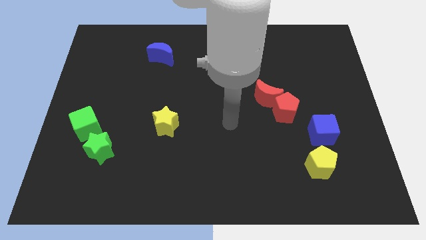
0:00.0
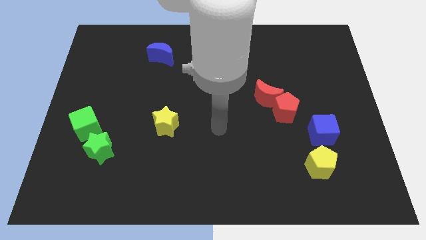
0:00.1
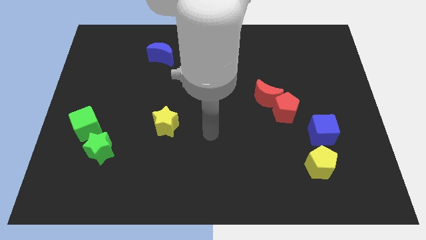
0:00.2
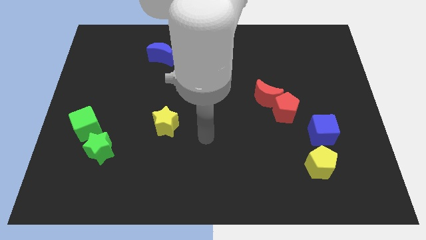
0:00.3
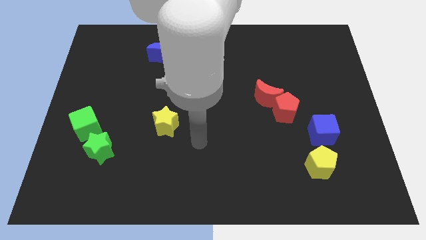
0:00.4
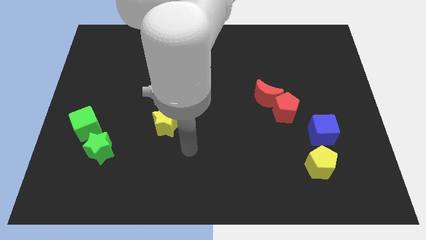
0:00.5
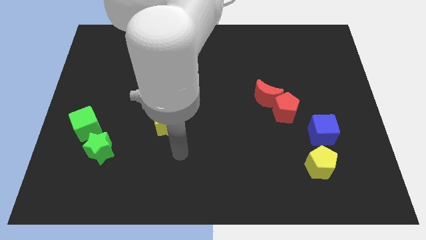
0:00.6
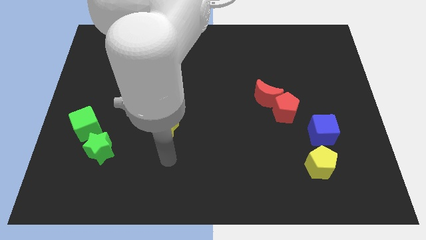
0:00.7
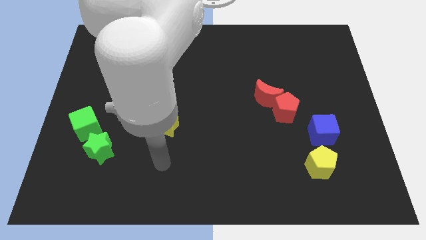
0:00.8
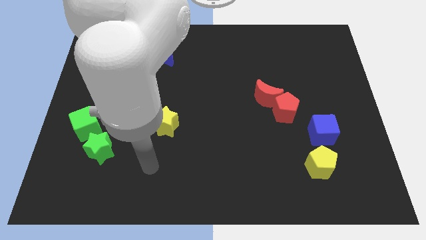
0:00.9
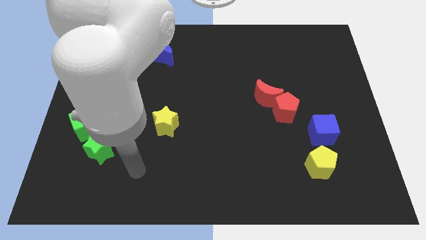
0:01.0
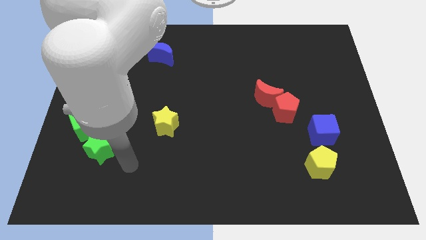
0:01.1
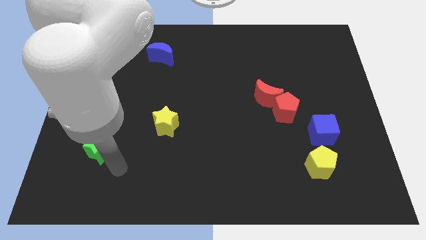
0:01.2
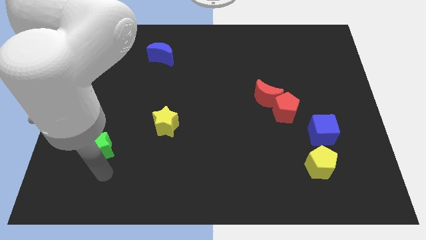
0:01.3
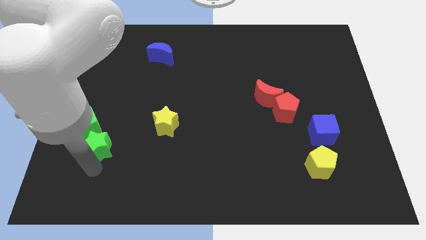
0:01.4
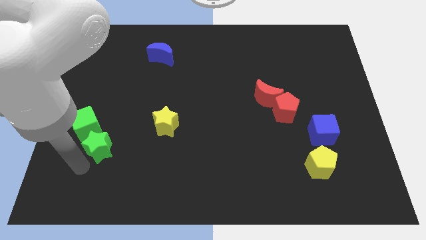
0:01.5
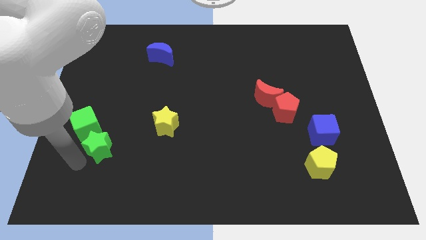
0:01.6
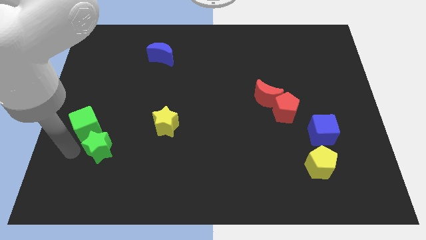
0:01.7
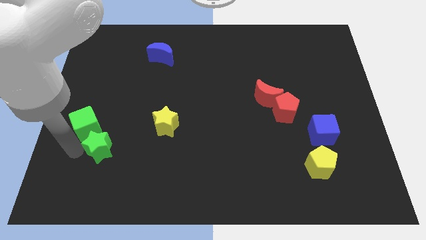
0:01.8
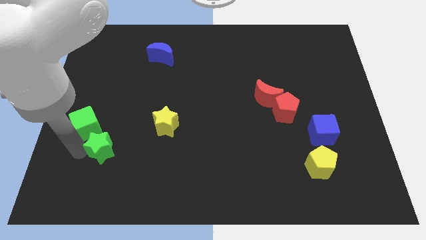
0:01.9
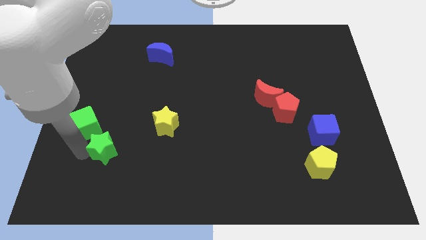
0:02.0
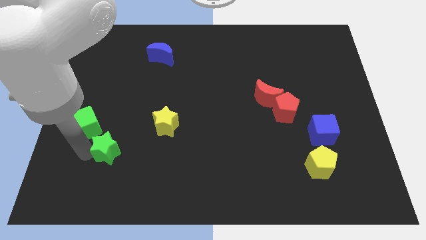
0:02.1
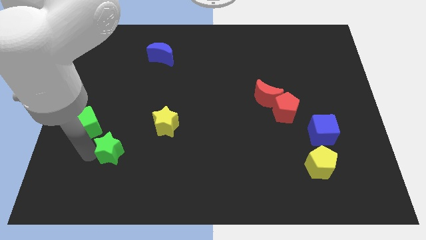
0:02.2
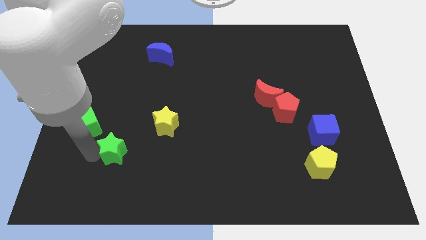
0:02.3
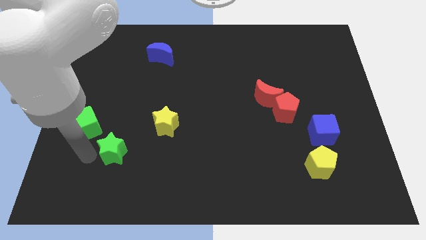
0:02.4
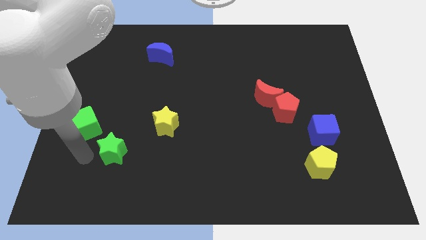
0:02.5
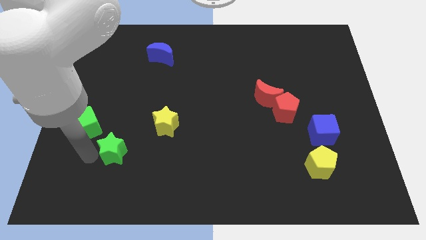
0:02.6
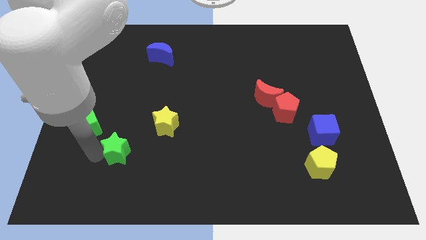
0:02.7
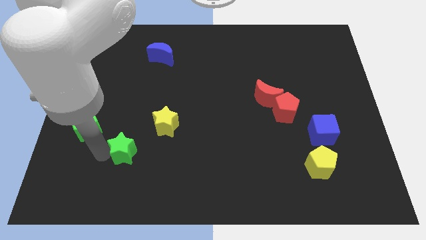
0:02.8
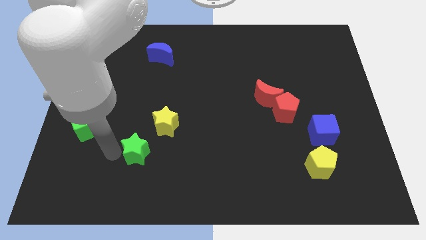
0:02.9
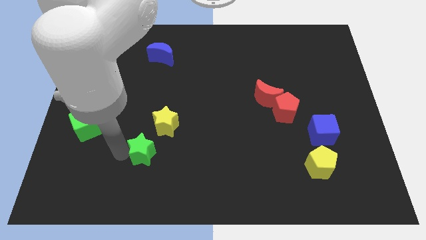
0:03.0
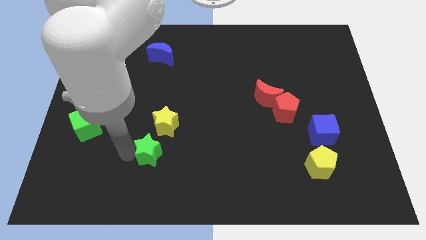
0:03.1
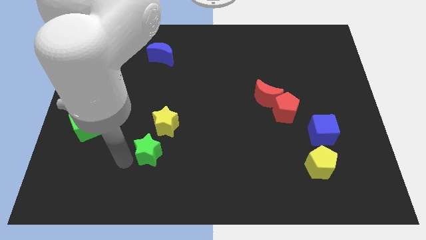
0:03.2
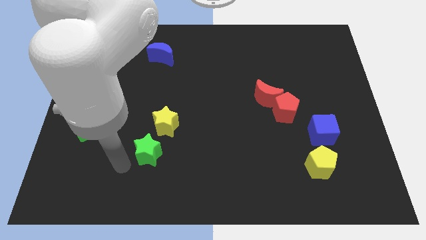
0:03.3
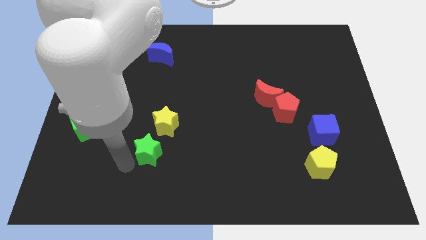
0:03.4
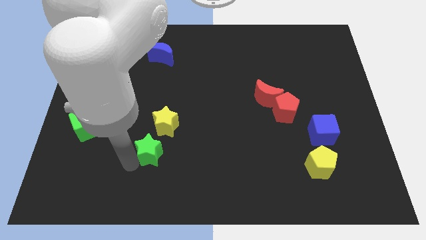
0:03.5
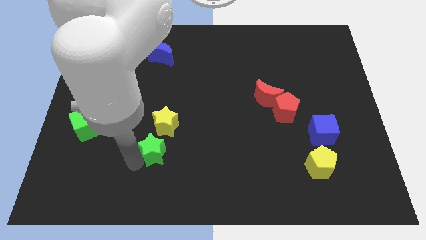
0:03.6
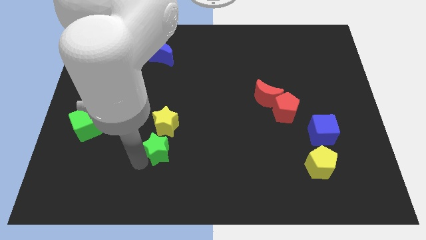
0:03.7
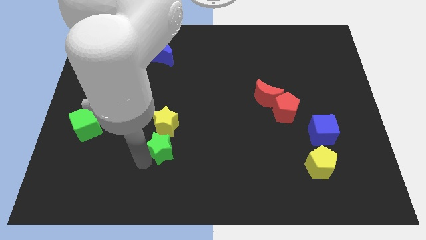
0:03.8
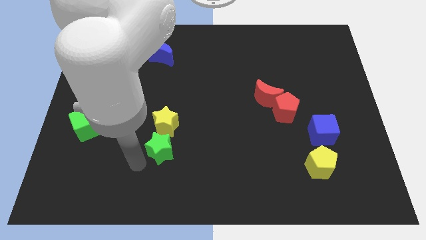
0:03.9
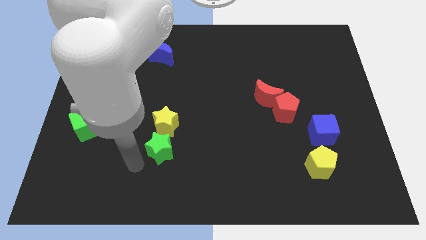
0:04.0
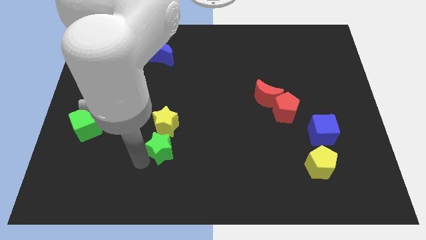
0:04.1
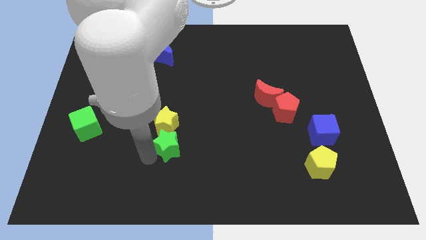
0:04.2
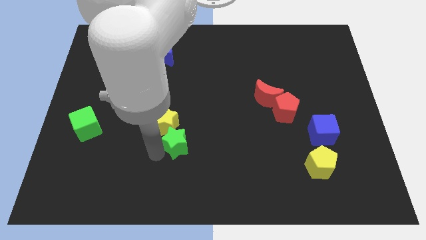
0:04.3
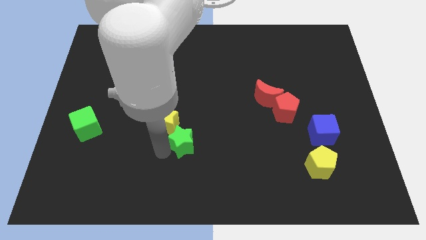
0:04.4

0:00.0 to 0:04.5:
put the green star right of the yellow star

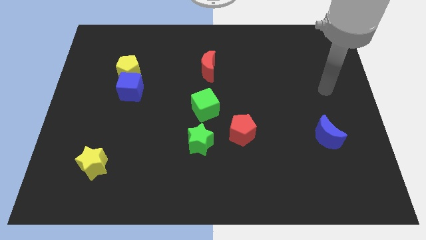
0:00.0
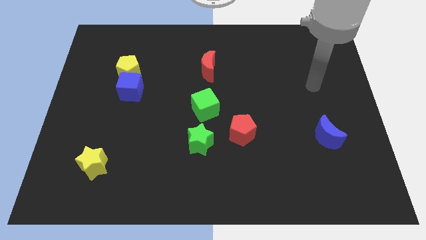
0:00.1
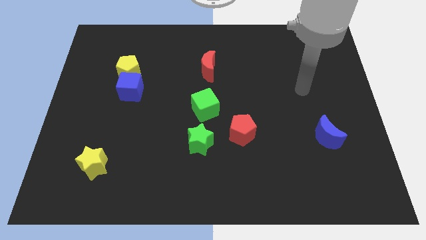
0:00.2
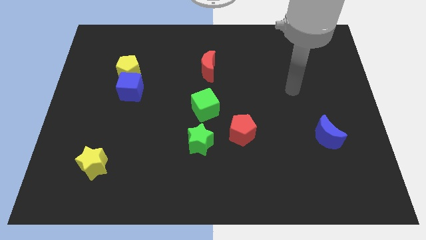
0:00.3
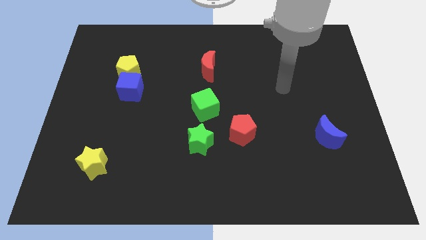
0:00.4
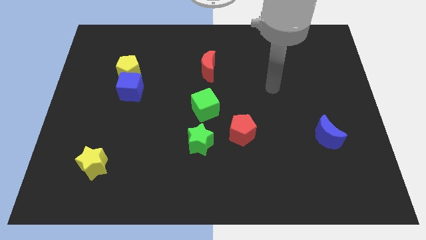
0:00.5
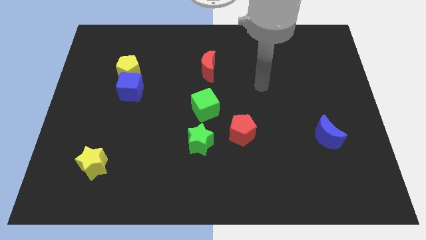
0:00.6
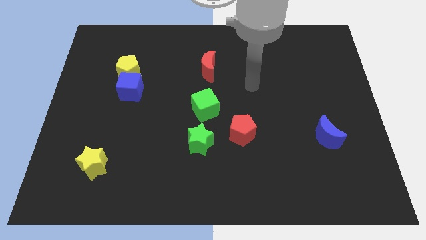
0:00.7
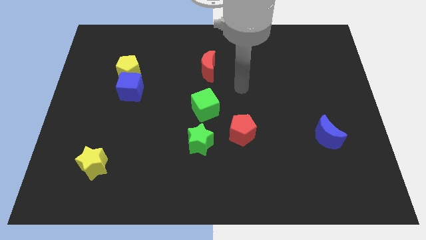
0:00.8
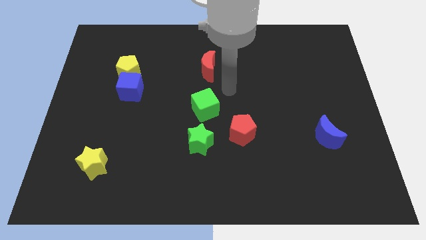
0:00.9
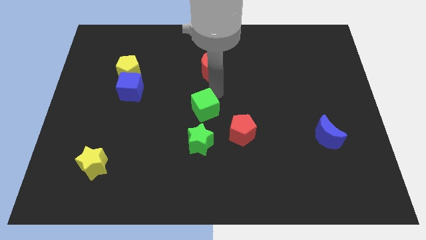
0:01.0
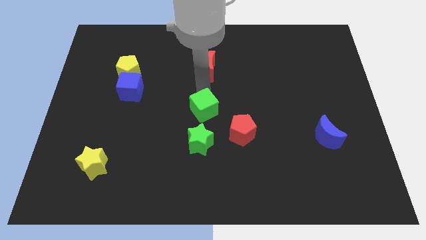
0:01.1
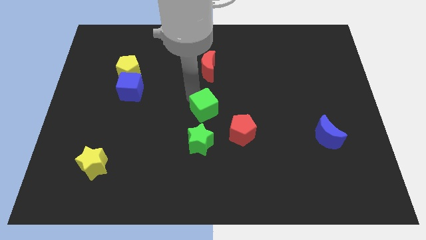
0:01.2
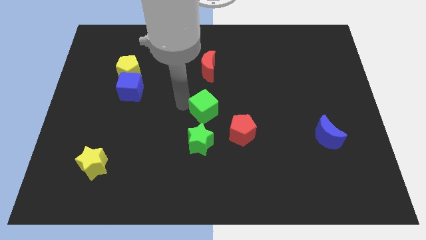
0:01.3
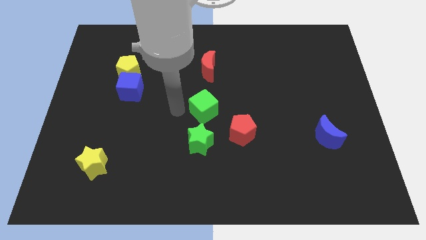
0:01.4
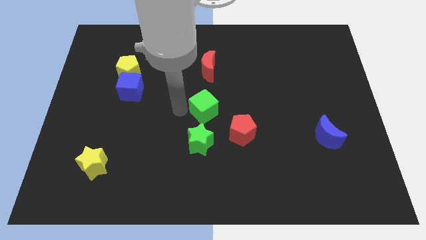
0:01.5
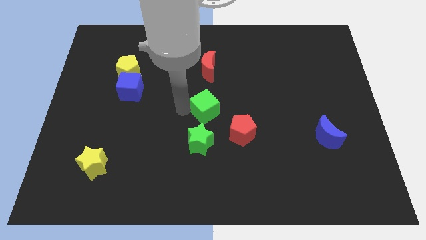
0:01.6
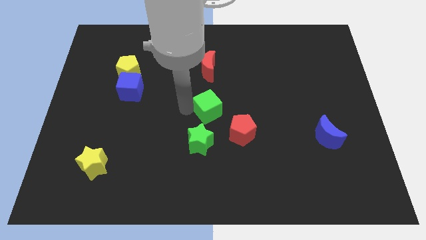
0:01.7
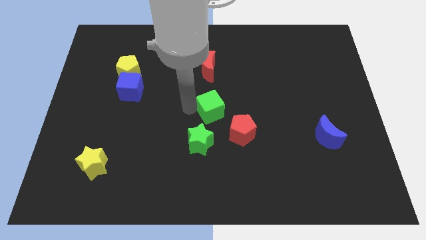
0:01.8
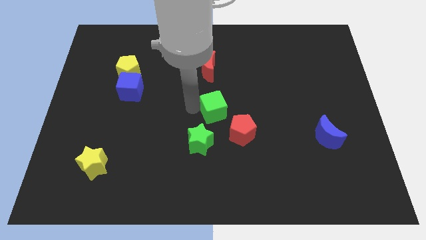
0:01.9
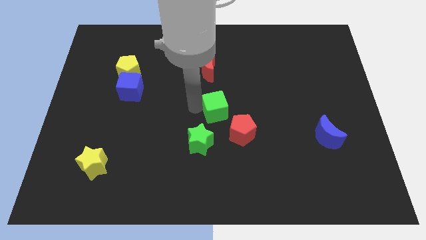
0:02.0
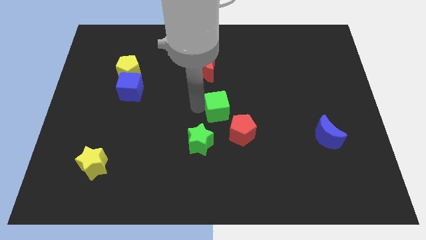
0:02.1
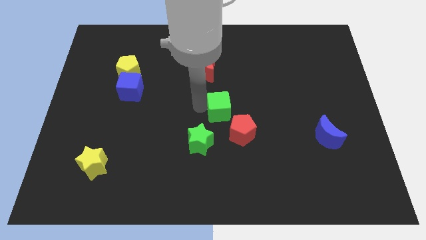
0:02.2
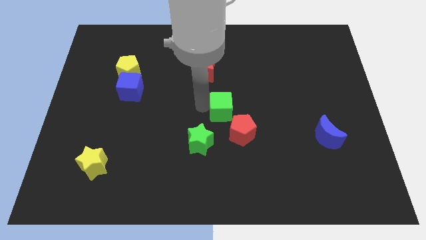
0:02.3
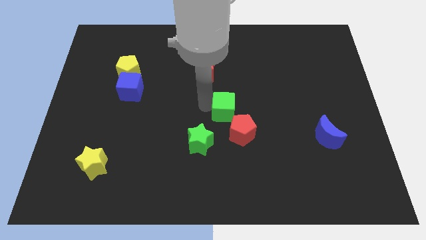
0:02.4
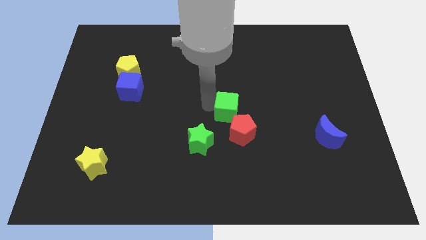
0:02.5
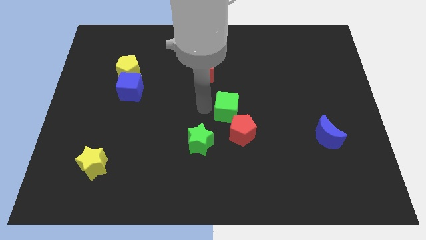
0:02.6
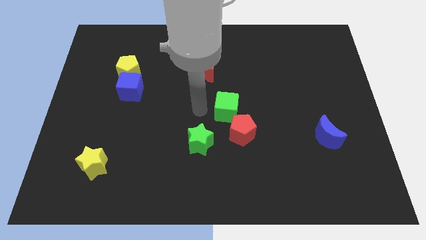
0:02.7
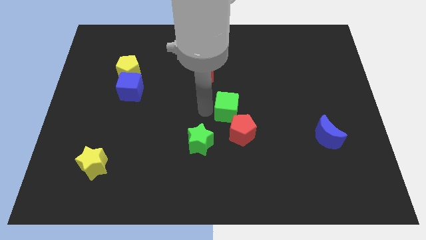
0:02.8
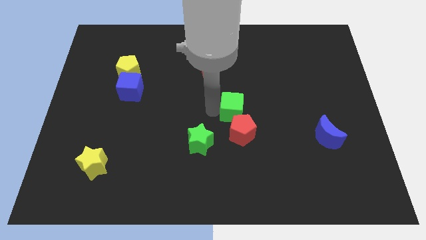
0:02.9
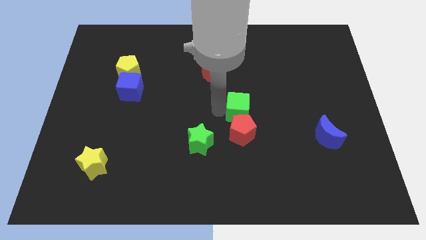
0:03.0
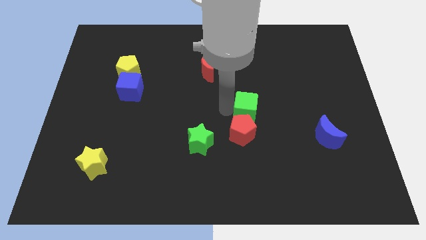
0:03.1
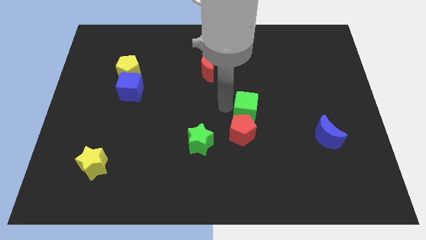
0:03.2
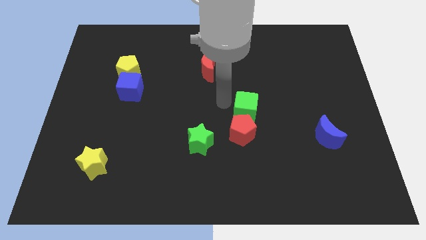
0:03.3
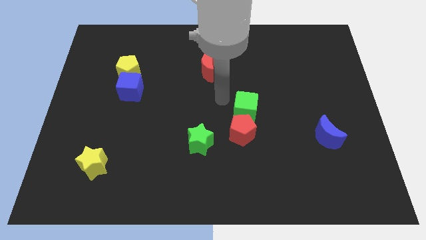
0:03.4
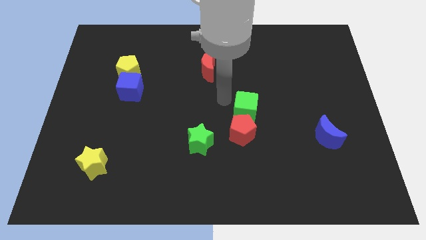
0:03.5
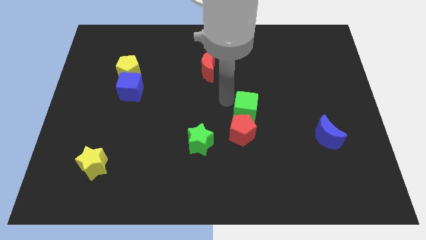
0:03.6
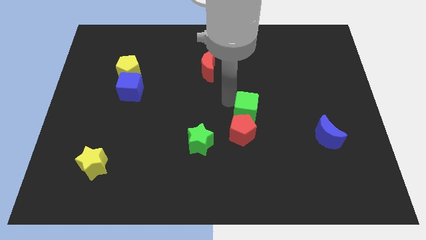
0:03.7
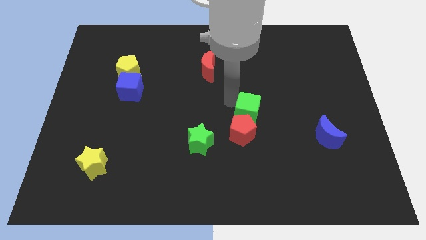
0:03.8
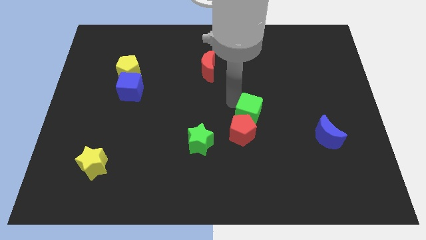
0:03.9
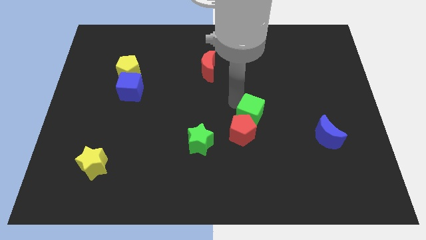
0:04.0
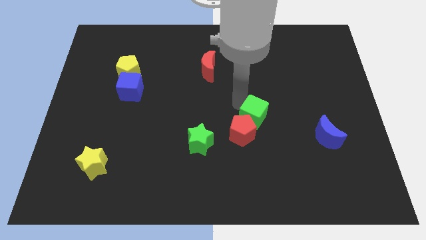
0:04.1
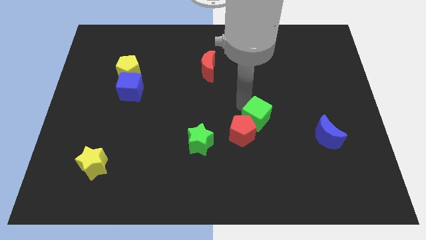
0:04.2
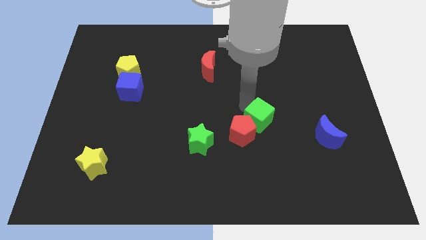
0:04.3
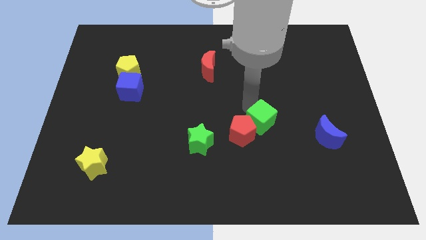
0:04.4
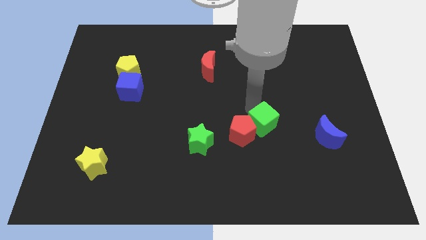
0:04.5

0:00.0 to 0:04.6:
slide the green cube left of the blue moon
